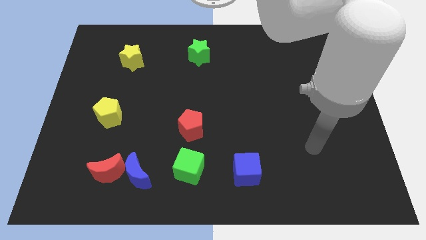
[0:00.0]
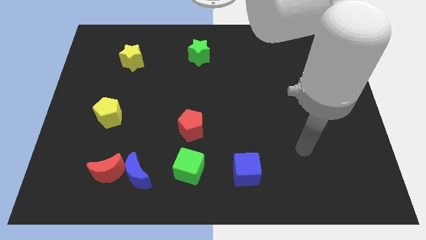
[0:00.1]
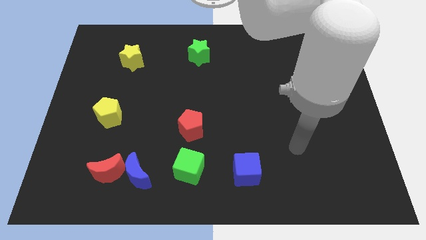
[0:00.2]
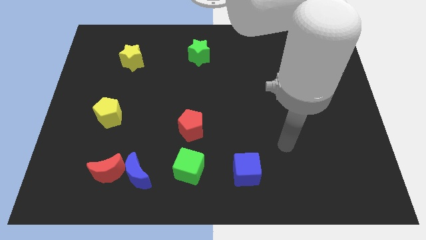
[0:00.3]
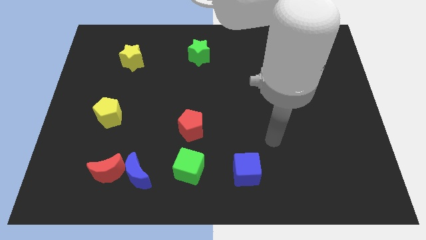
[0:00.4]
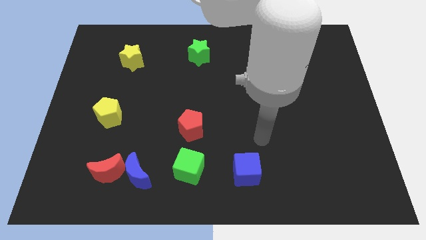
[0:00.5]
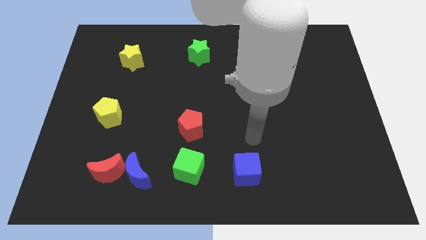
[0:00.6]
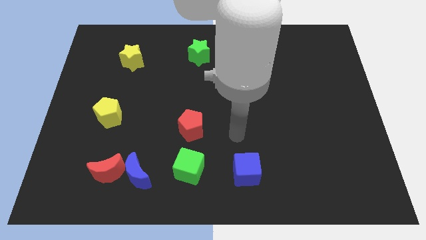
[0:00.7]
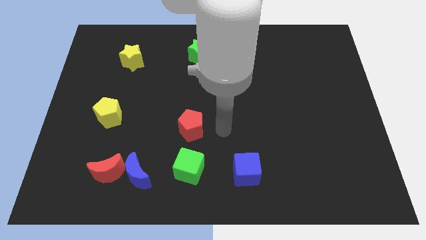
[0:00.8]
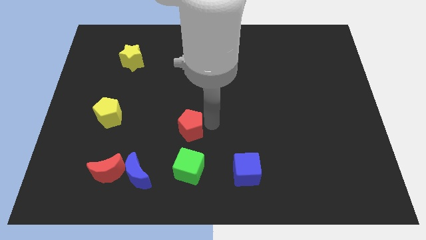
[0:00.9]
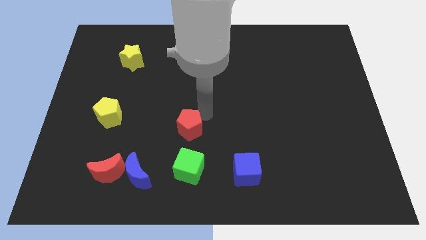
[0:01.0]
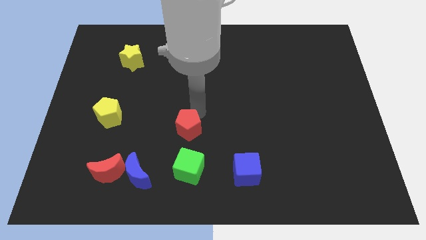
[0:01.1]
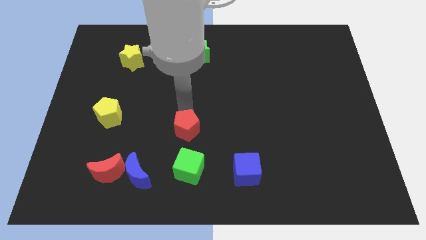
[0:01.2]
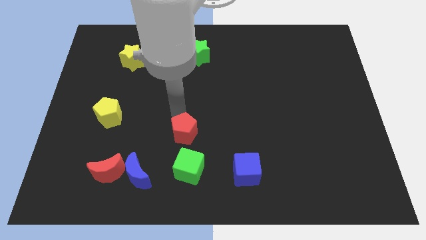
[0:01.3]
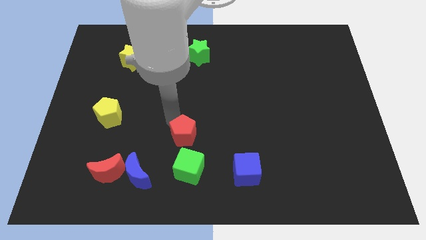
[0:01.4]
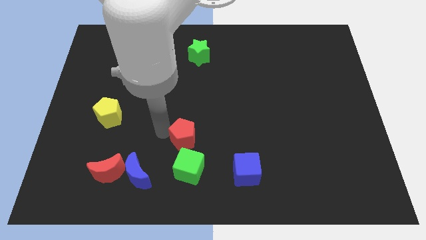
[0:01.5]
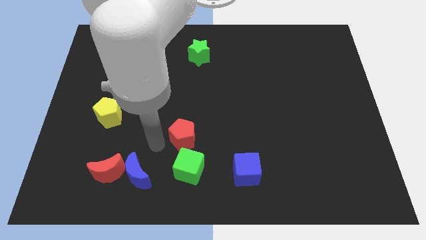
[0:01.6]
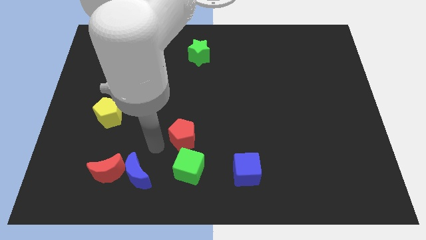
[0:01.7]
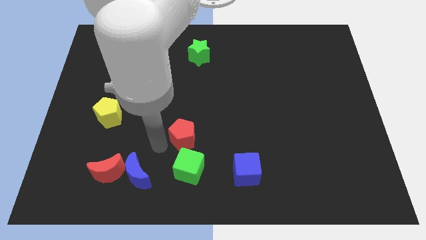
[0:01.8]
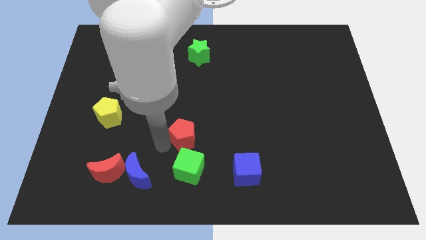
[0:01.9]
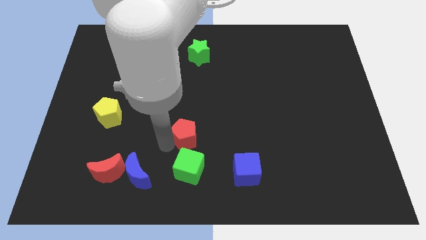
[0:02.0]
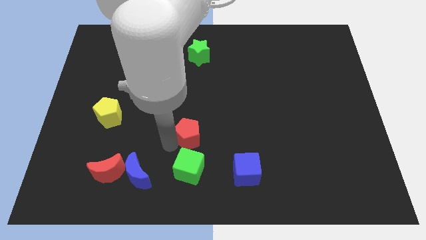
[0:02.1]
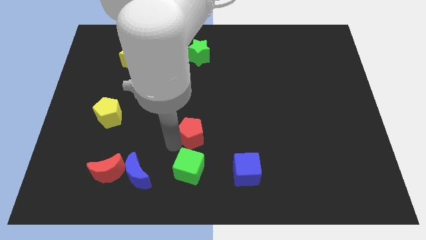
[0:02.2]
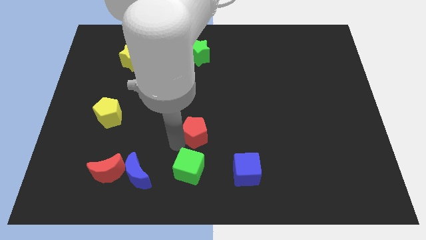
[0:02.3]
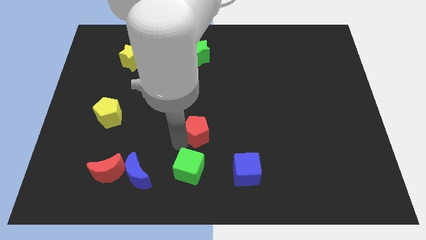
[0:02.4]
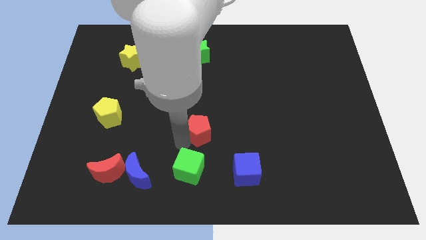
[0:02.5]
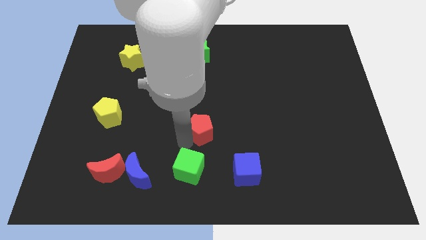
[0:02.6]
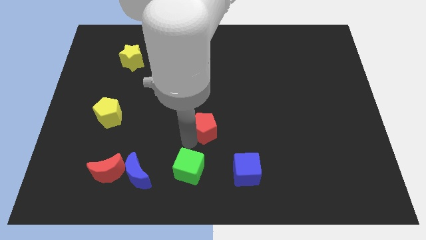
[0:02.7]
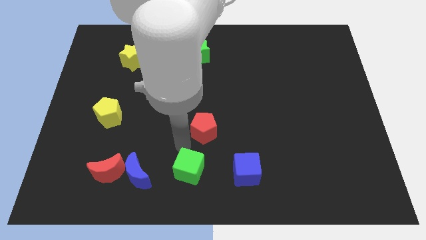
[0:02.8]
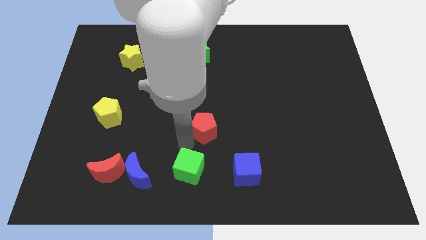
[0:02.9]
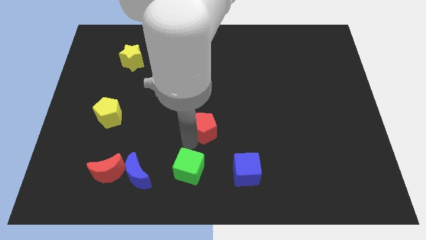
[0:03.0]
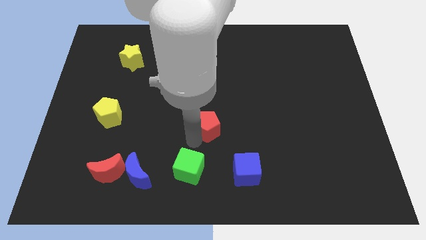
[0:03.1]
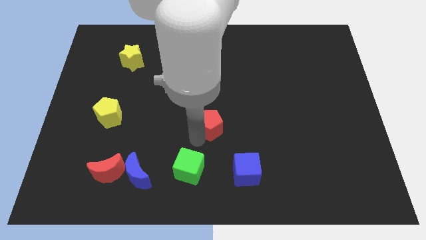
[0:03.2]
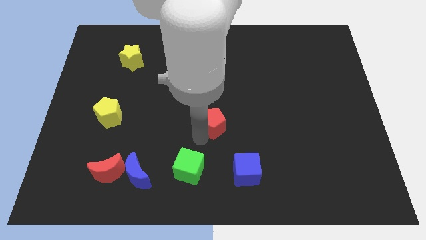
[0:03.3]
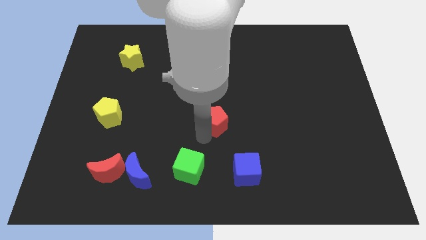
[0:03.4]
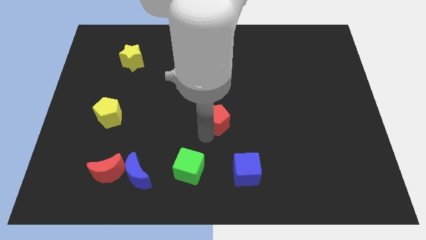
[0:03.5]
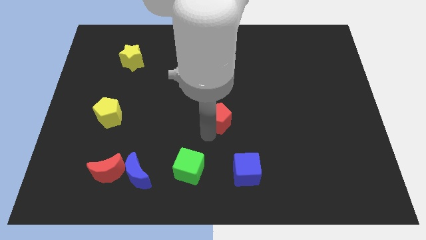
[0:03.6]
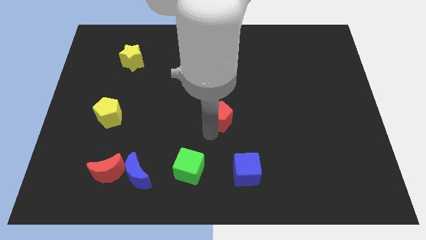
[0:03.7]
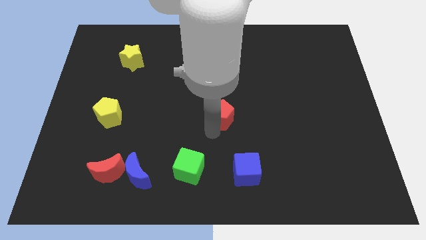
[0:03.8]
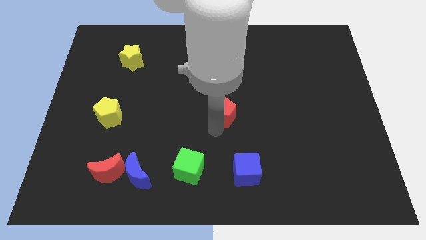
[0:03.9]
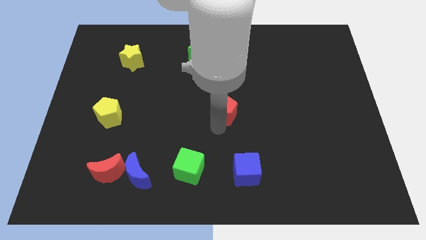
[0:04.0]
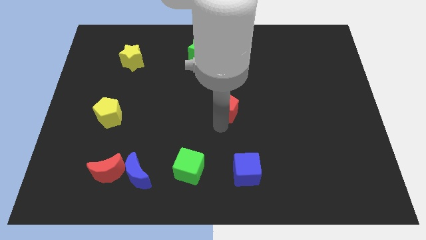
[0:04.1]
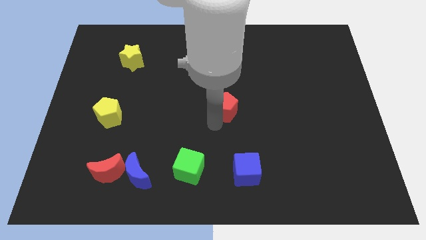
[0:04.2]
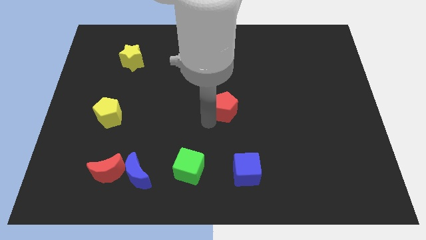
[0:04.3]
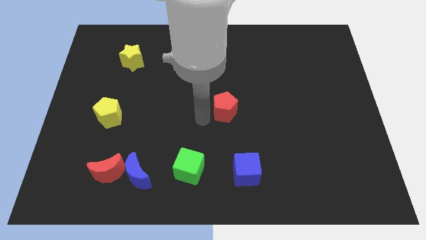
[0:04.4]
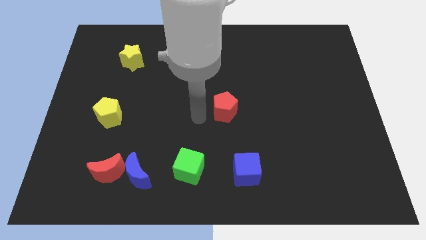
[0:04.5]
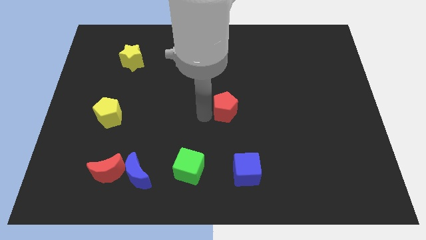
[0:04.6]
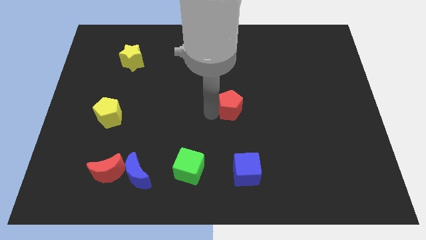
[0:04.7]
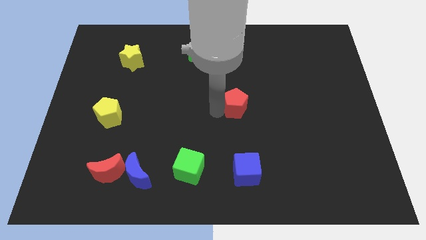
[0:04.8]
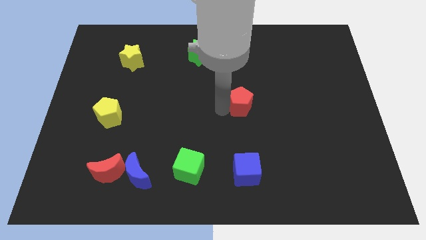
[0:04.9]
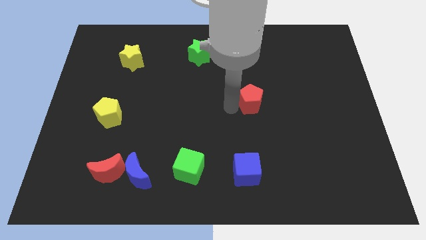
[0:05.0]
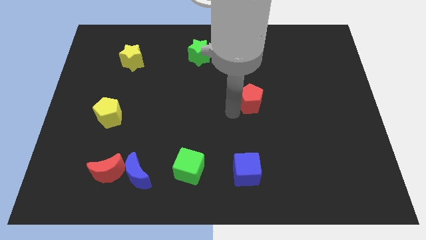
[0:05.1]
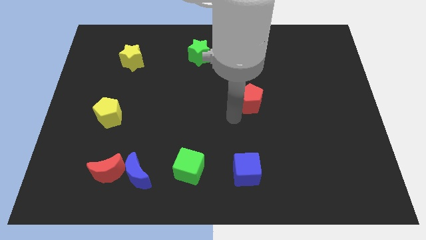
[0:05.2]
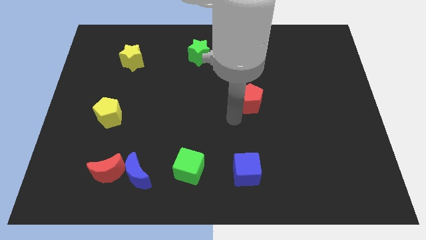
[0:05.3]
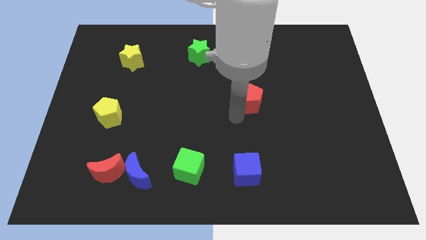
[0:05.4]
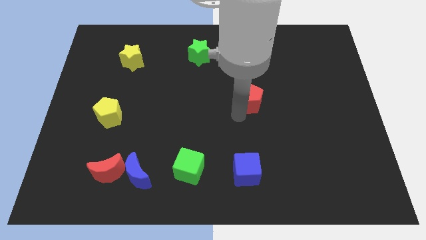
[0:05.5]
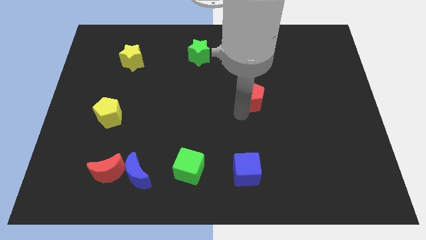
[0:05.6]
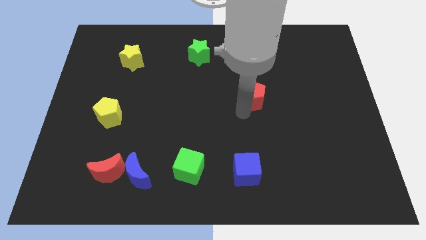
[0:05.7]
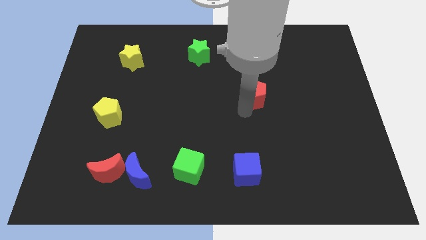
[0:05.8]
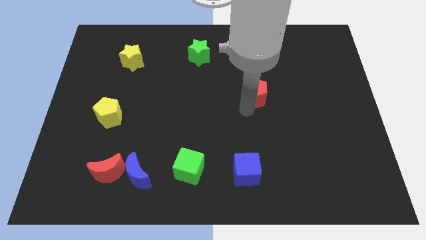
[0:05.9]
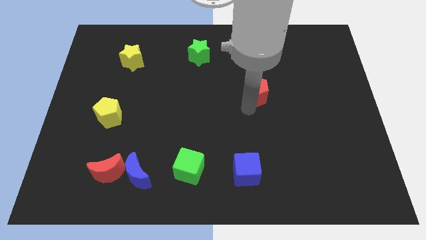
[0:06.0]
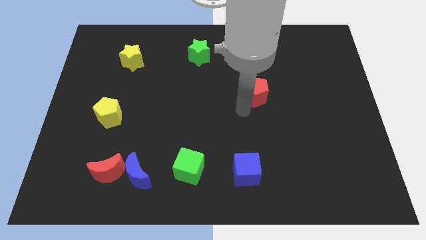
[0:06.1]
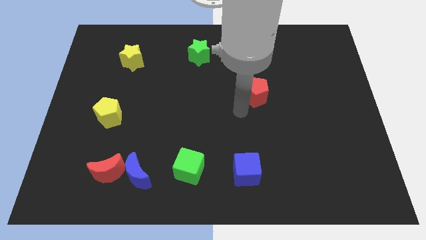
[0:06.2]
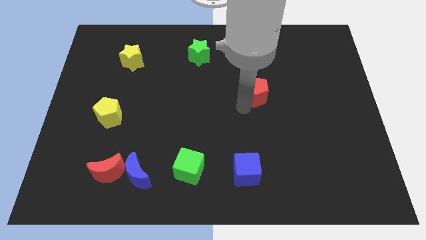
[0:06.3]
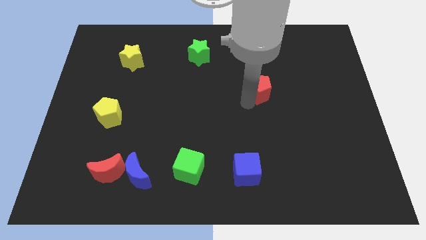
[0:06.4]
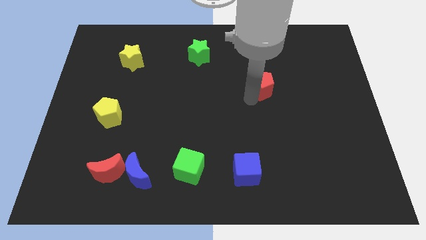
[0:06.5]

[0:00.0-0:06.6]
slide the red pentagon diagonally upwards and right

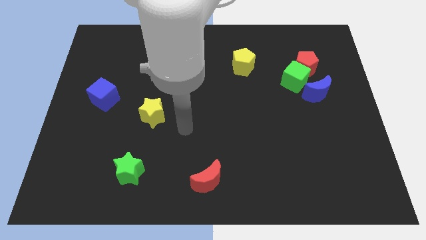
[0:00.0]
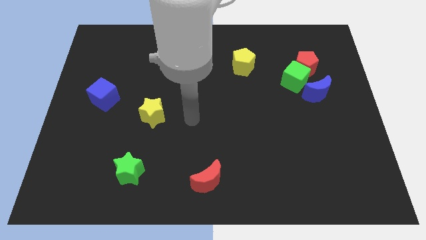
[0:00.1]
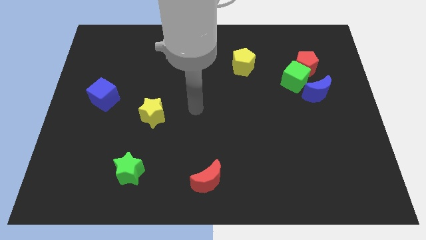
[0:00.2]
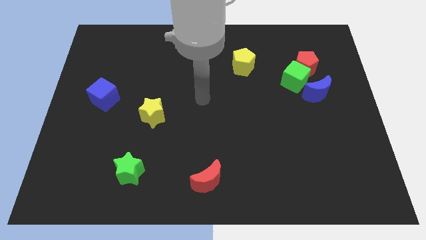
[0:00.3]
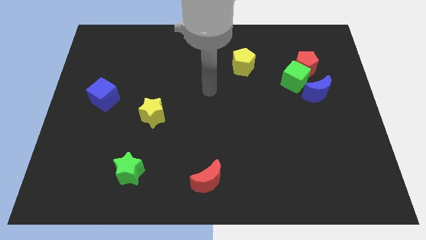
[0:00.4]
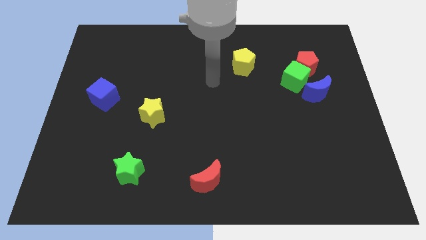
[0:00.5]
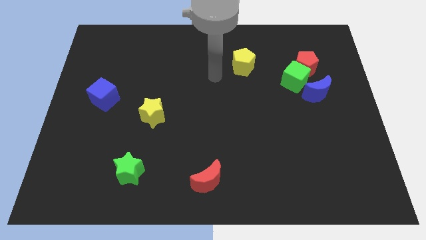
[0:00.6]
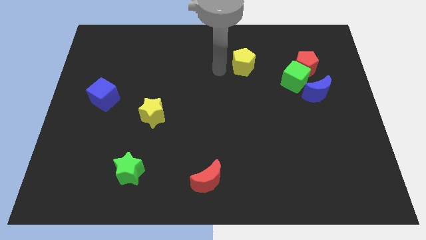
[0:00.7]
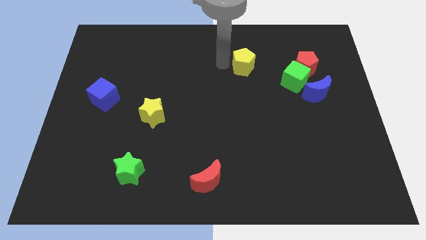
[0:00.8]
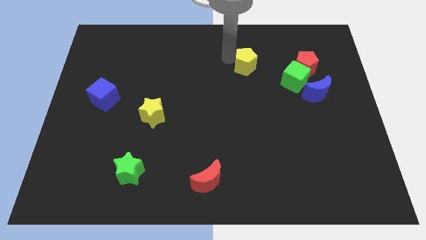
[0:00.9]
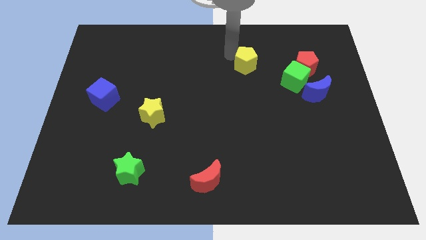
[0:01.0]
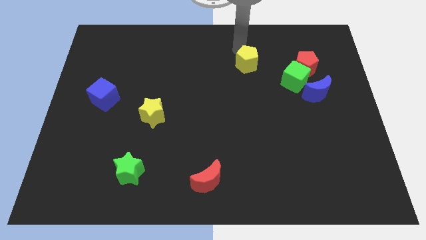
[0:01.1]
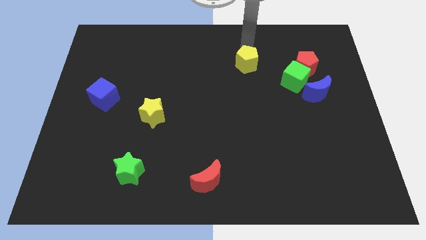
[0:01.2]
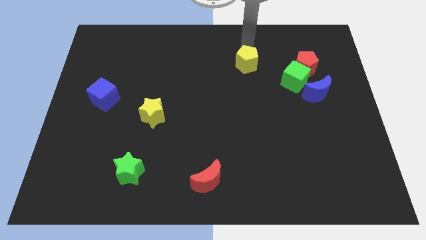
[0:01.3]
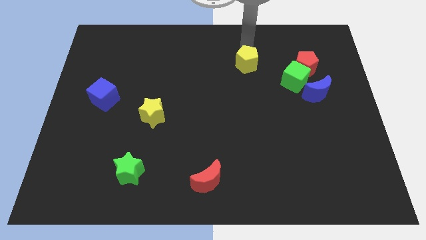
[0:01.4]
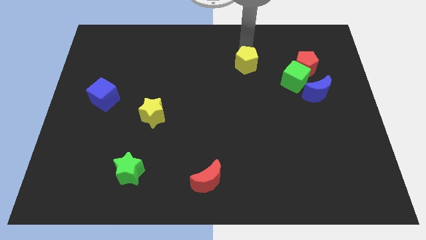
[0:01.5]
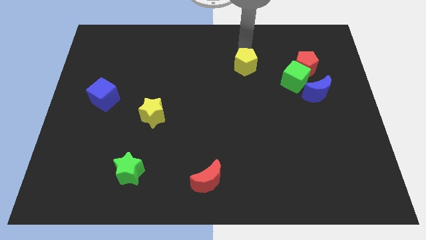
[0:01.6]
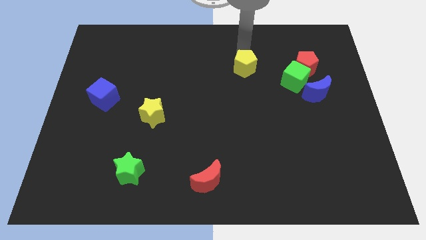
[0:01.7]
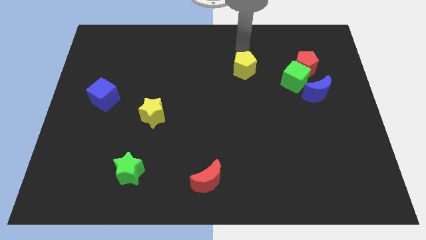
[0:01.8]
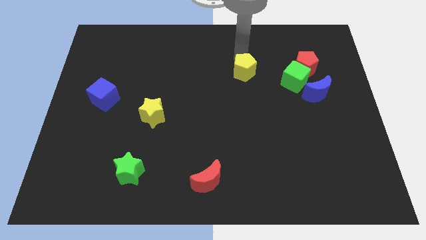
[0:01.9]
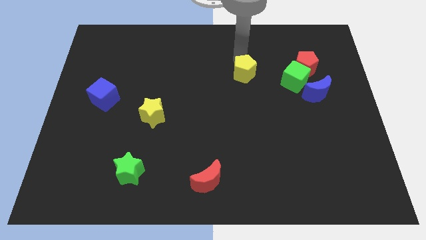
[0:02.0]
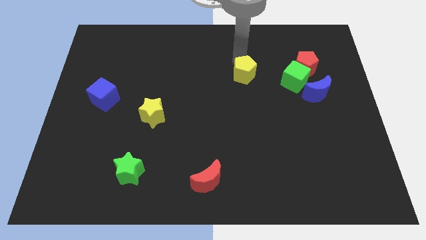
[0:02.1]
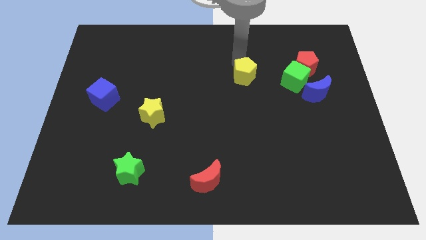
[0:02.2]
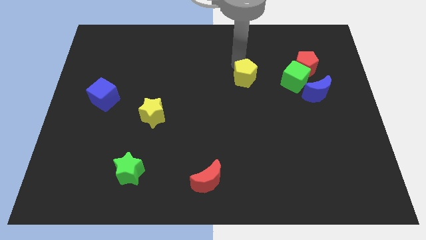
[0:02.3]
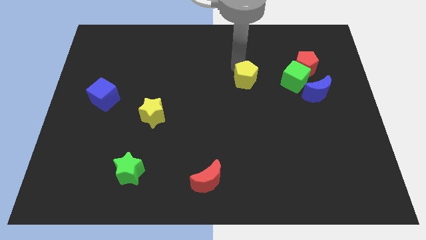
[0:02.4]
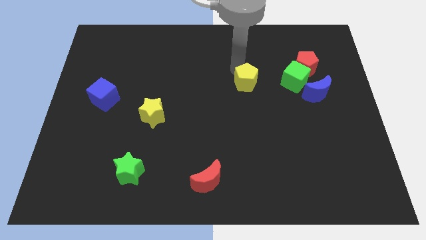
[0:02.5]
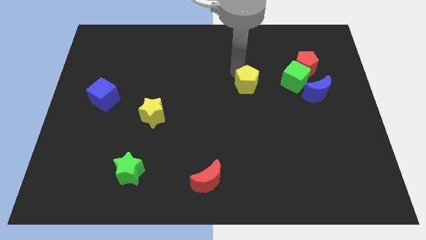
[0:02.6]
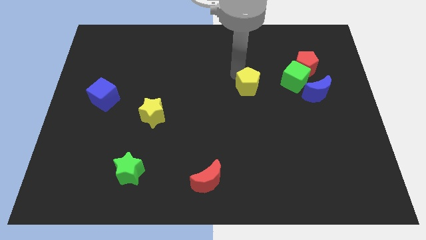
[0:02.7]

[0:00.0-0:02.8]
push the yellow pentagon a little bit downwards
